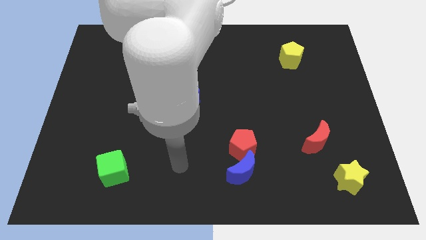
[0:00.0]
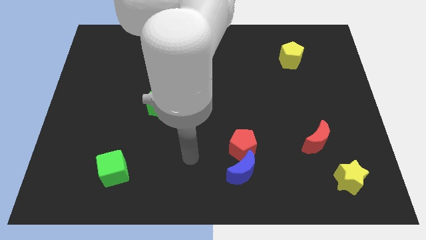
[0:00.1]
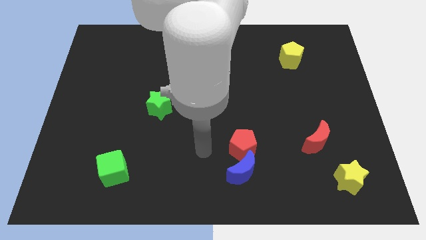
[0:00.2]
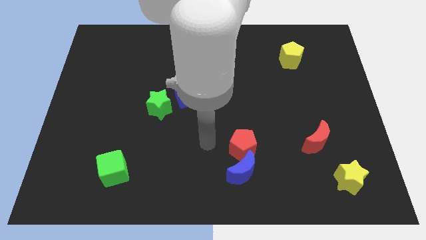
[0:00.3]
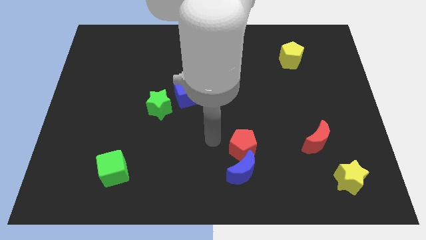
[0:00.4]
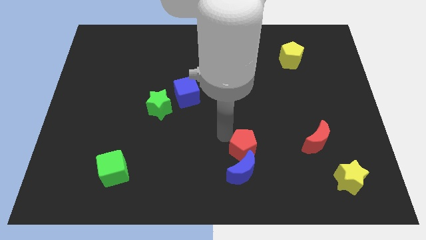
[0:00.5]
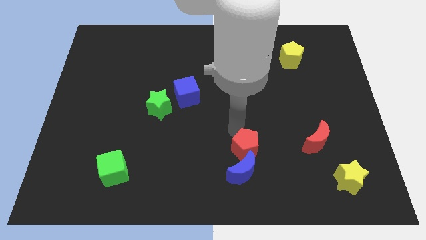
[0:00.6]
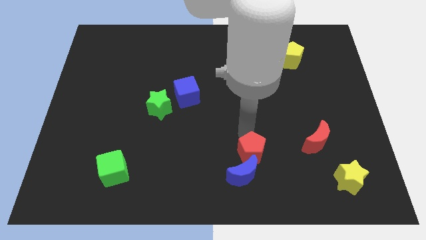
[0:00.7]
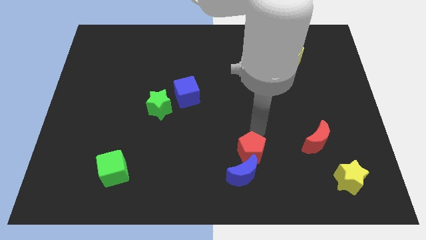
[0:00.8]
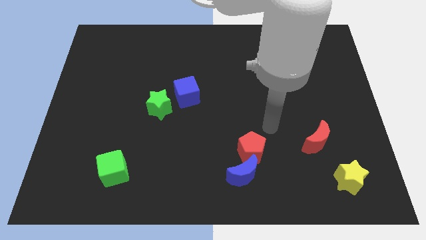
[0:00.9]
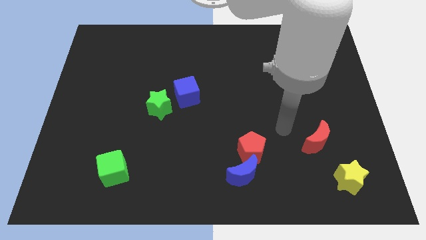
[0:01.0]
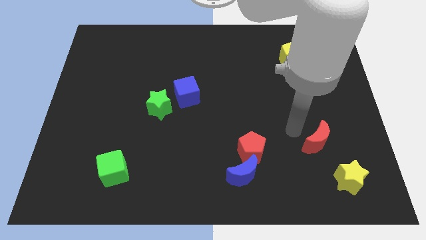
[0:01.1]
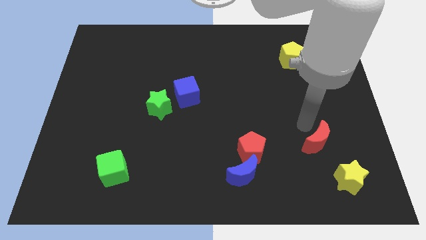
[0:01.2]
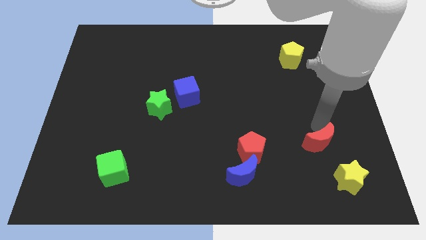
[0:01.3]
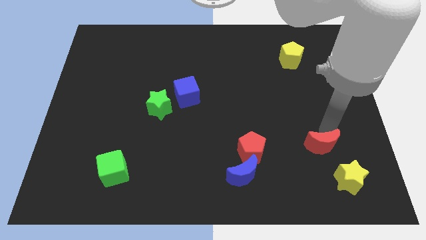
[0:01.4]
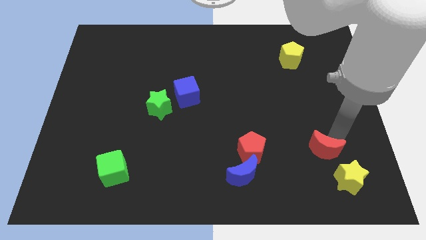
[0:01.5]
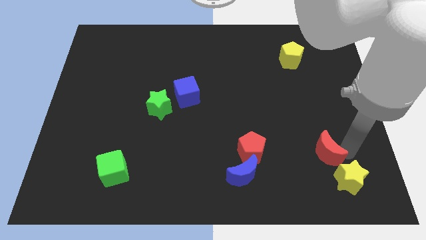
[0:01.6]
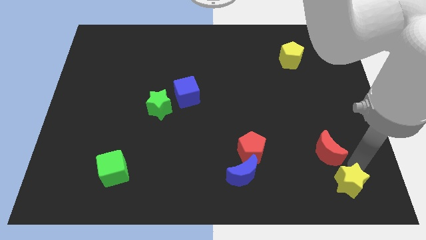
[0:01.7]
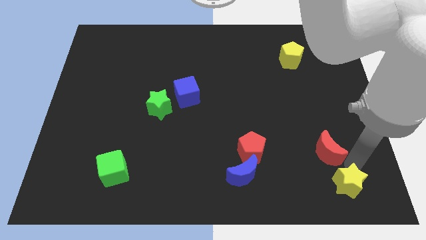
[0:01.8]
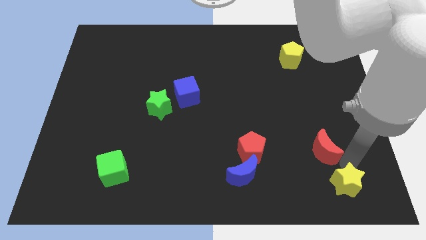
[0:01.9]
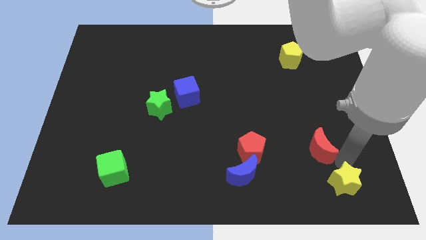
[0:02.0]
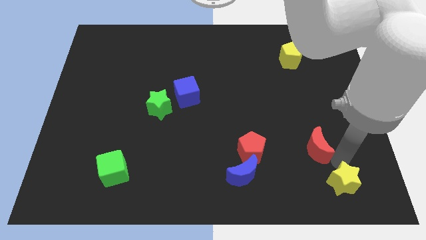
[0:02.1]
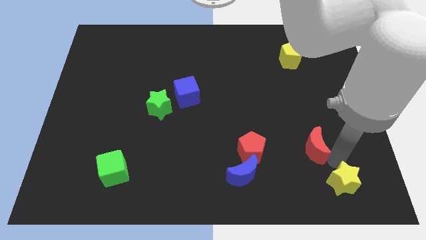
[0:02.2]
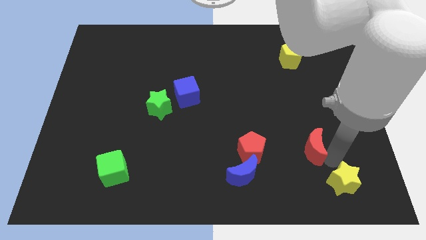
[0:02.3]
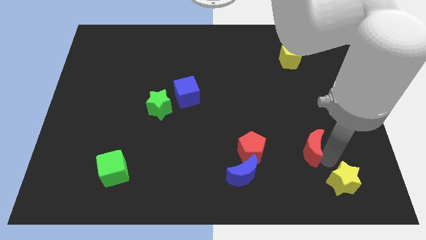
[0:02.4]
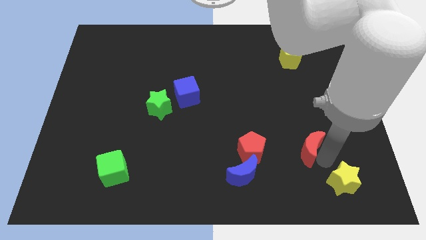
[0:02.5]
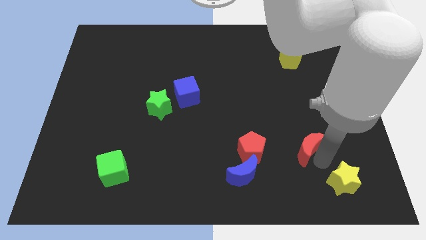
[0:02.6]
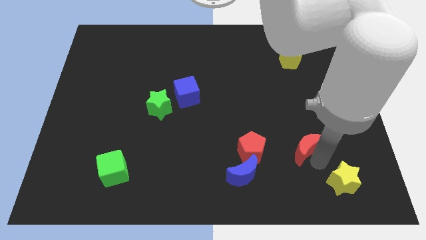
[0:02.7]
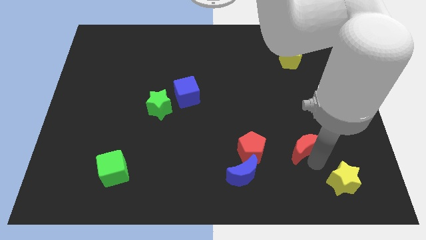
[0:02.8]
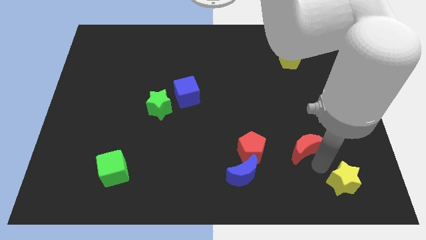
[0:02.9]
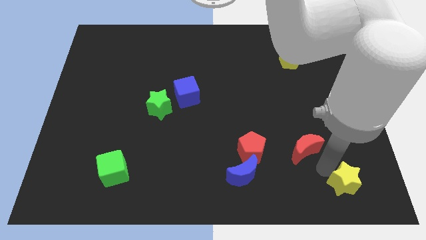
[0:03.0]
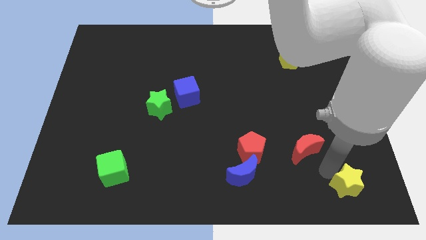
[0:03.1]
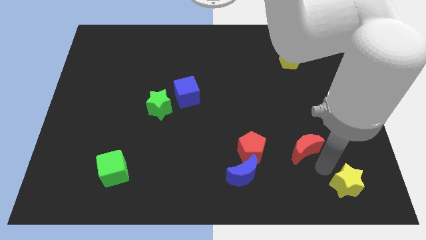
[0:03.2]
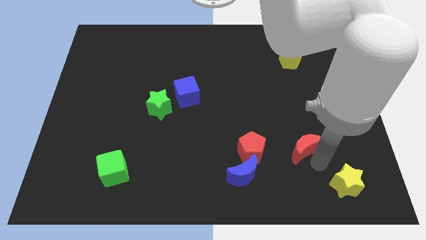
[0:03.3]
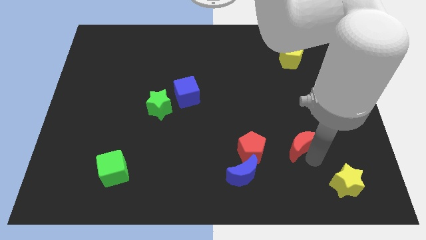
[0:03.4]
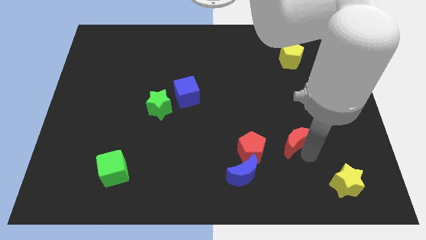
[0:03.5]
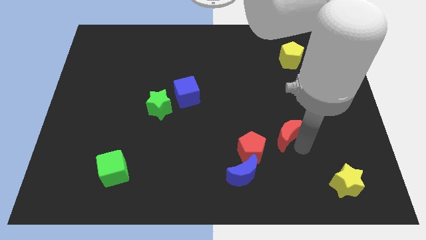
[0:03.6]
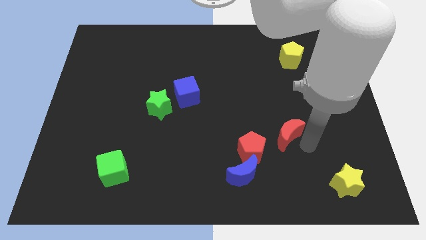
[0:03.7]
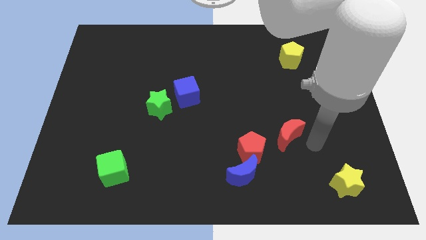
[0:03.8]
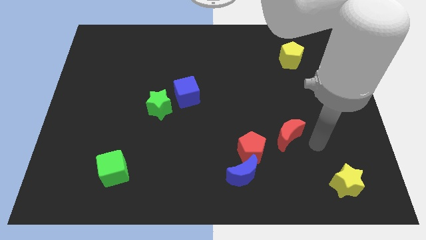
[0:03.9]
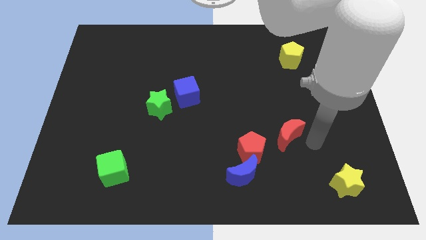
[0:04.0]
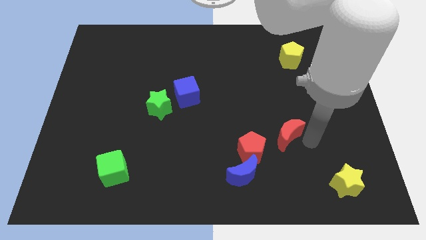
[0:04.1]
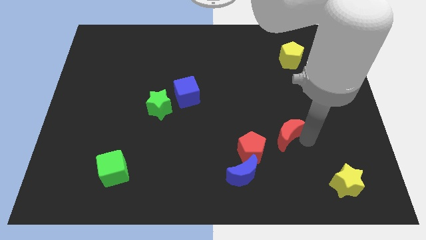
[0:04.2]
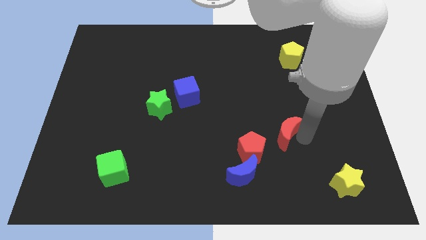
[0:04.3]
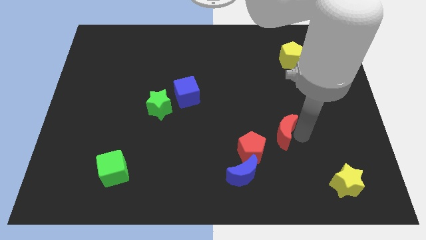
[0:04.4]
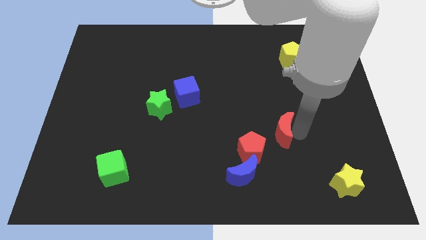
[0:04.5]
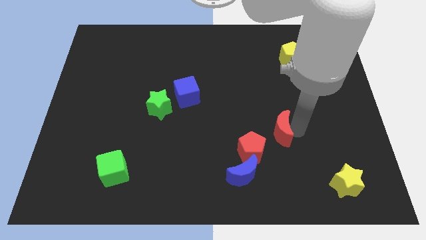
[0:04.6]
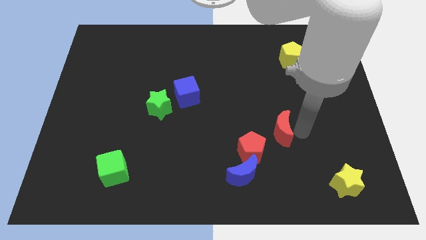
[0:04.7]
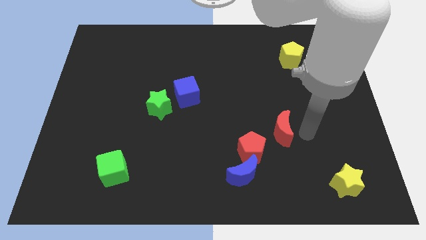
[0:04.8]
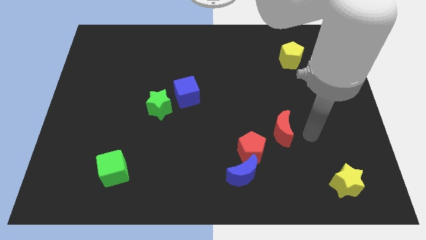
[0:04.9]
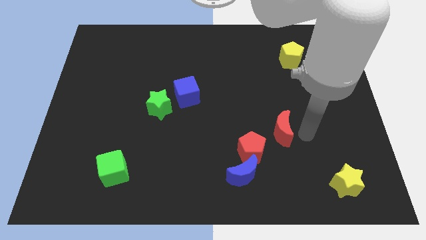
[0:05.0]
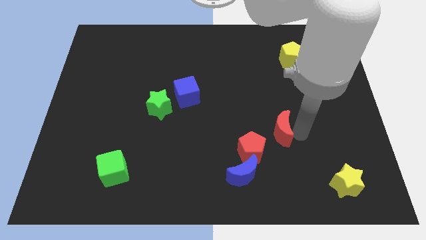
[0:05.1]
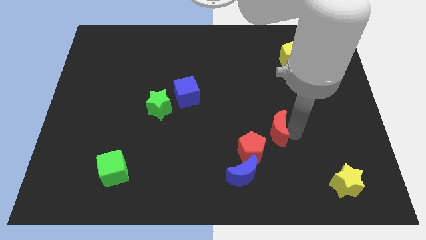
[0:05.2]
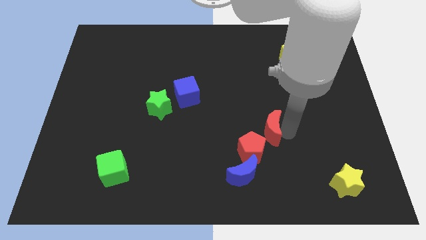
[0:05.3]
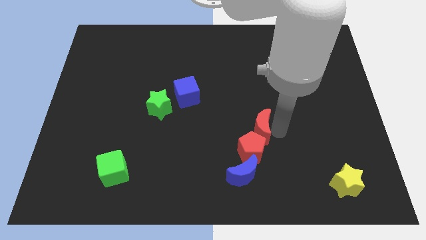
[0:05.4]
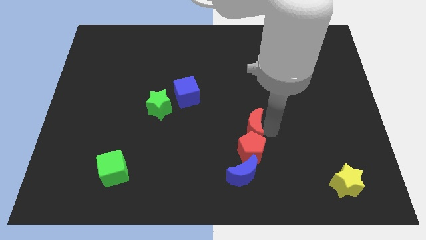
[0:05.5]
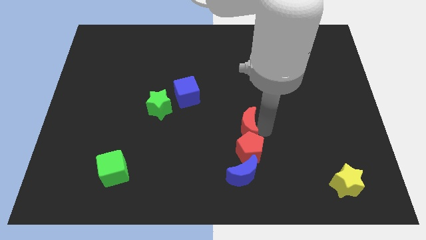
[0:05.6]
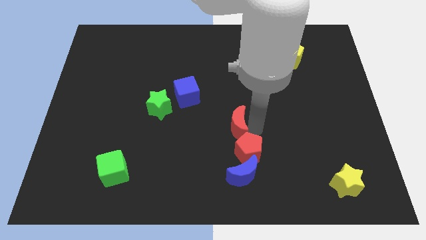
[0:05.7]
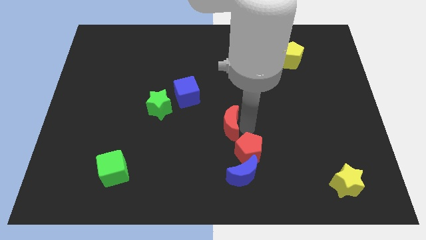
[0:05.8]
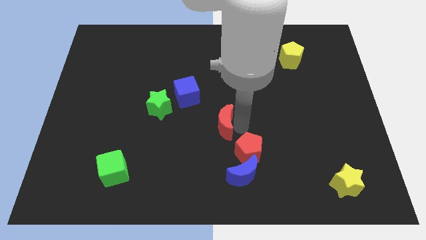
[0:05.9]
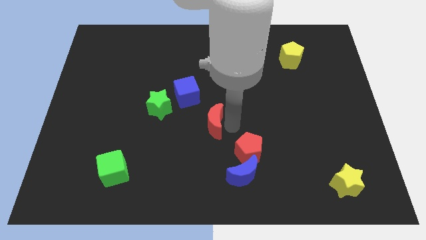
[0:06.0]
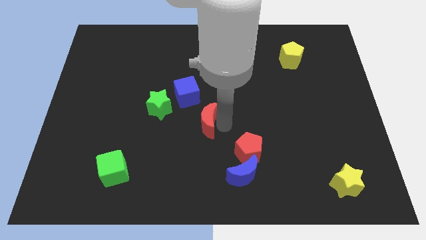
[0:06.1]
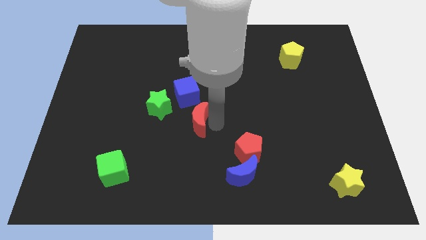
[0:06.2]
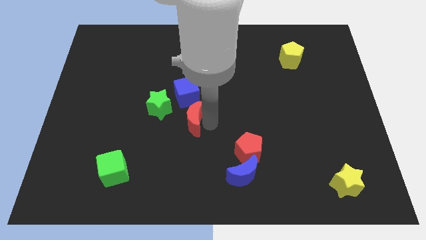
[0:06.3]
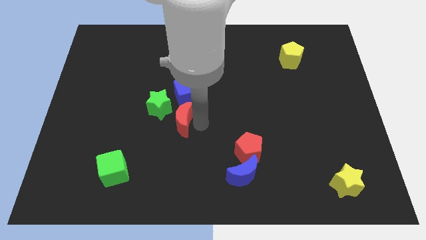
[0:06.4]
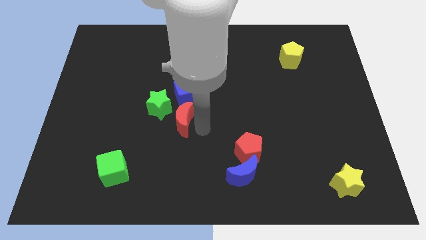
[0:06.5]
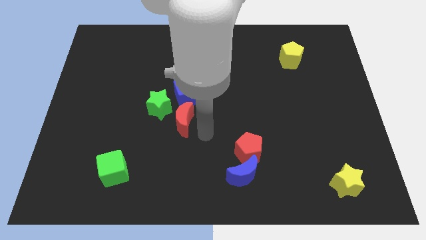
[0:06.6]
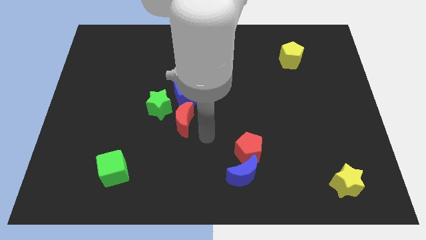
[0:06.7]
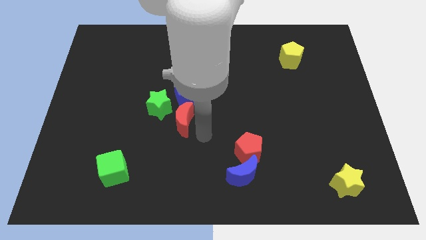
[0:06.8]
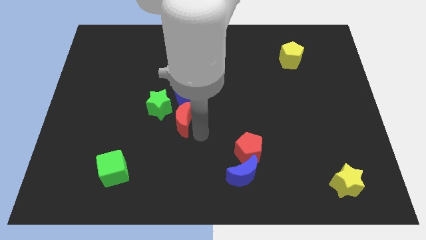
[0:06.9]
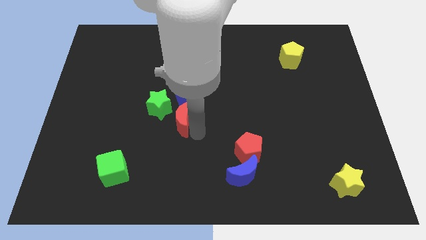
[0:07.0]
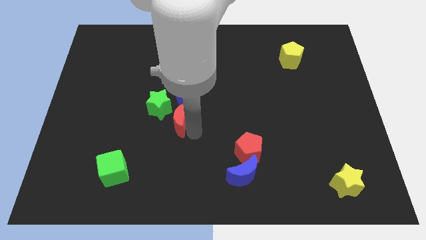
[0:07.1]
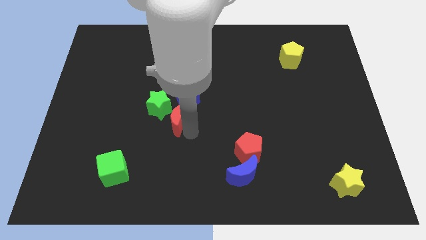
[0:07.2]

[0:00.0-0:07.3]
slide the red moon towards the green star

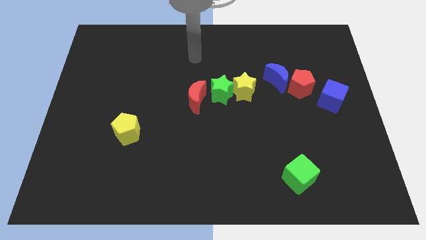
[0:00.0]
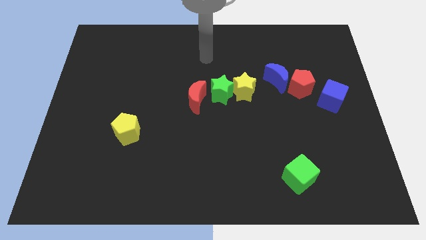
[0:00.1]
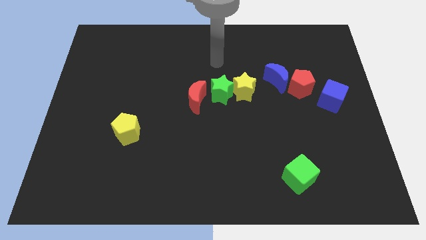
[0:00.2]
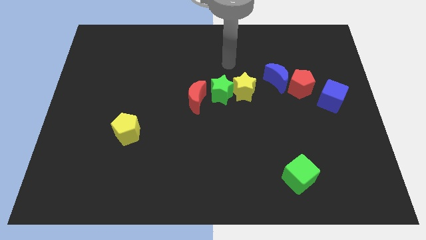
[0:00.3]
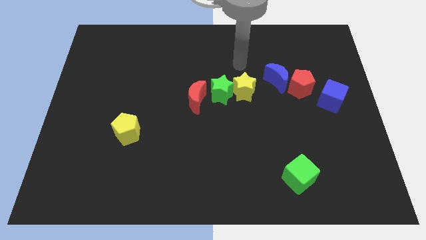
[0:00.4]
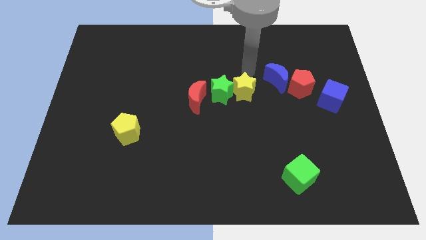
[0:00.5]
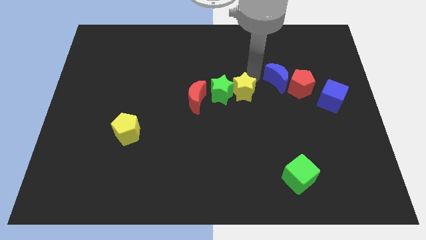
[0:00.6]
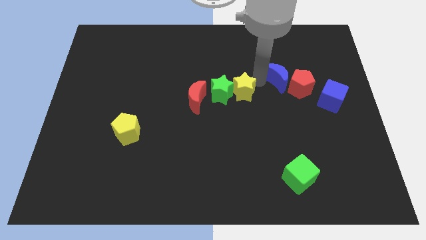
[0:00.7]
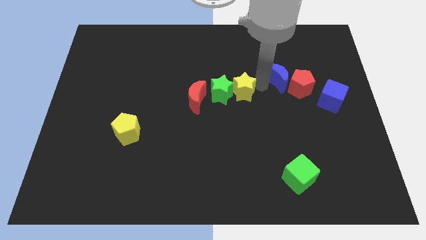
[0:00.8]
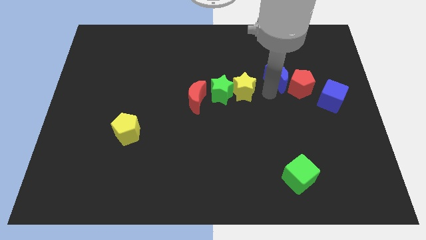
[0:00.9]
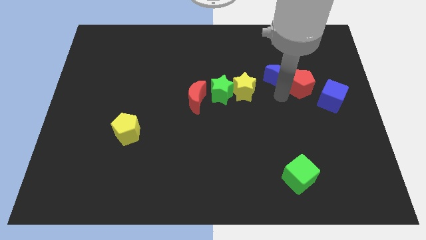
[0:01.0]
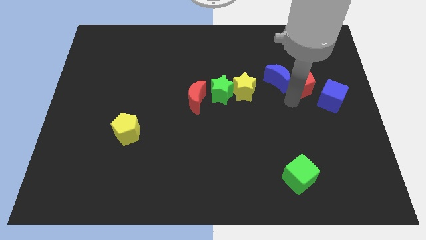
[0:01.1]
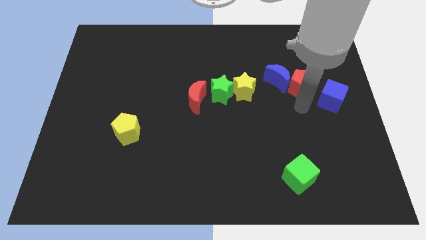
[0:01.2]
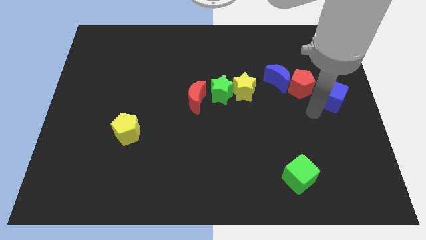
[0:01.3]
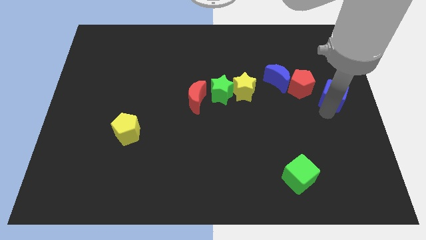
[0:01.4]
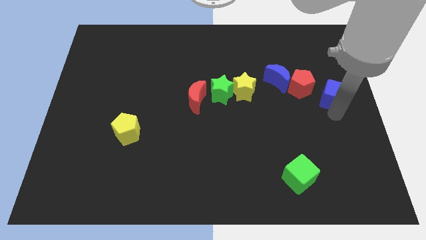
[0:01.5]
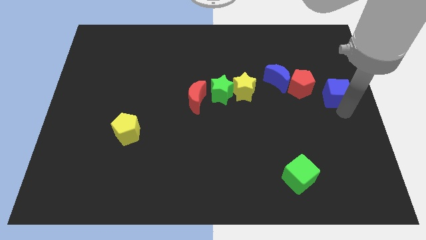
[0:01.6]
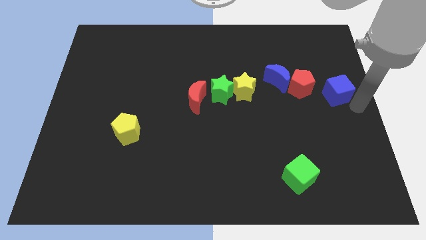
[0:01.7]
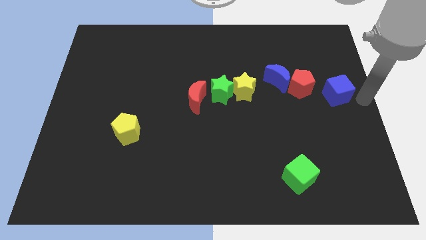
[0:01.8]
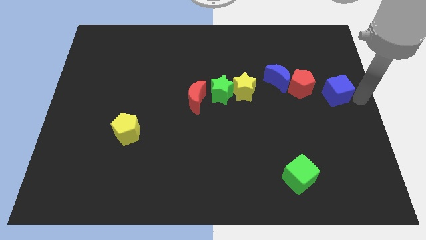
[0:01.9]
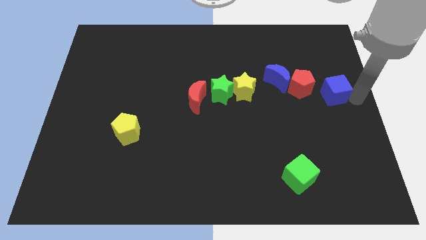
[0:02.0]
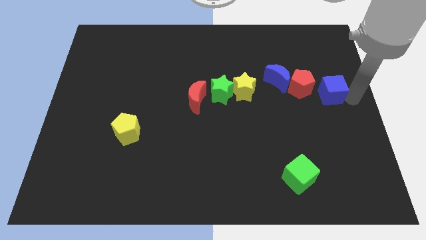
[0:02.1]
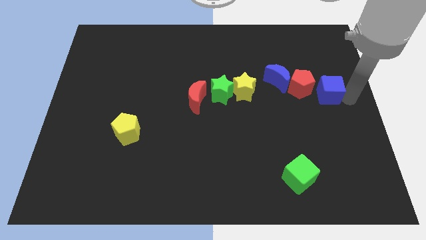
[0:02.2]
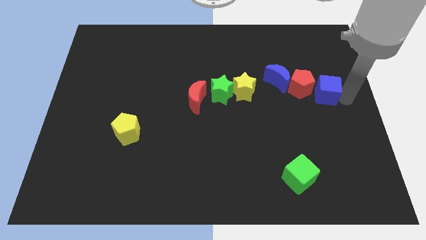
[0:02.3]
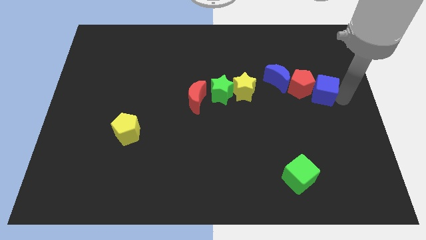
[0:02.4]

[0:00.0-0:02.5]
push the blue cube close to the red pentagon
